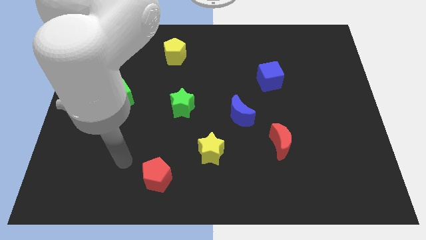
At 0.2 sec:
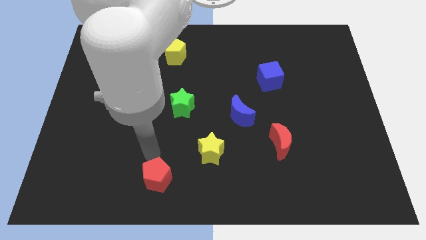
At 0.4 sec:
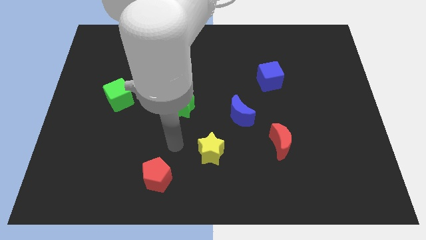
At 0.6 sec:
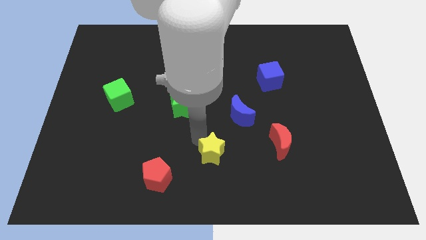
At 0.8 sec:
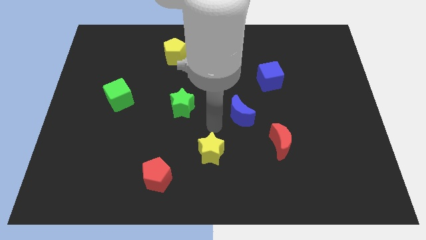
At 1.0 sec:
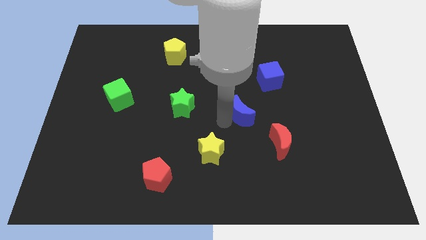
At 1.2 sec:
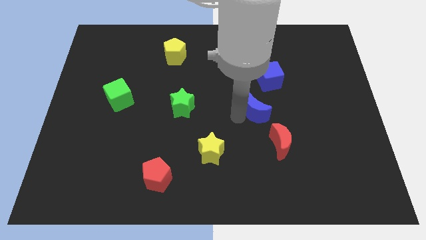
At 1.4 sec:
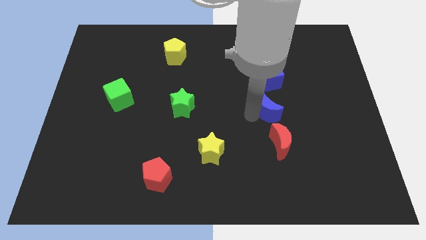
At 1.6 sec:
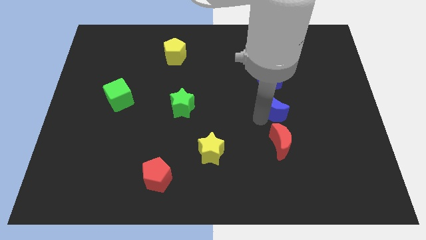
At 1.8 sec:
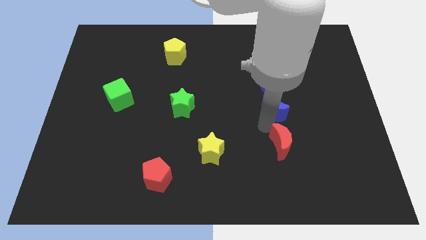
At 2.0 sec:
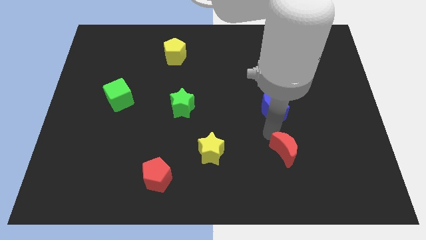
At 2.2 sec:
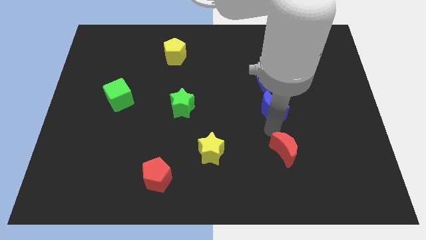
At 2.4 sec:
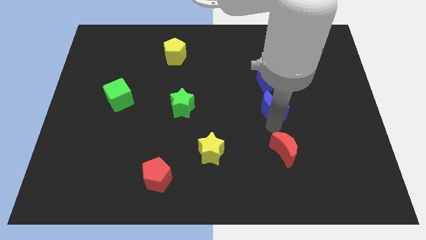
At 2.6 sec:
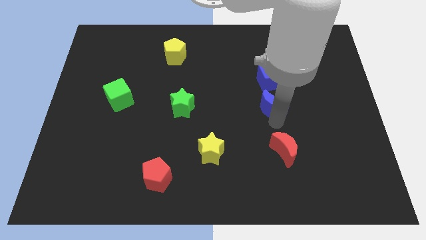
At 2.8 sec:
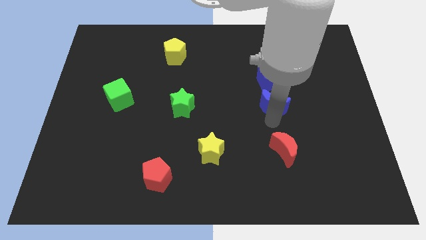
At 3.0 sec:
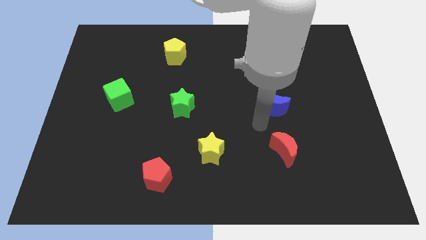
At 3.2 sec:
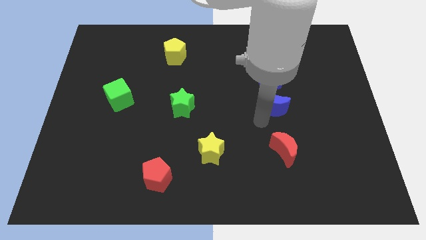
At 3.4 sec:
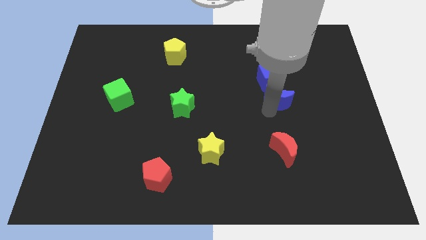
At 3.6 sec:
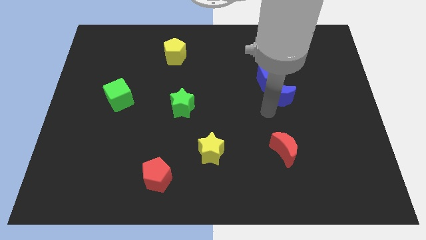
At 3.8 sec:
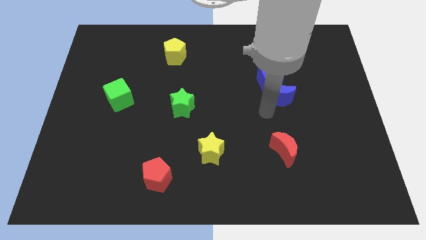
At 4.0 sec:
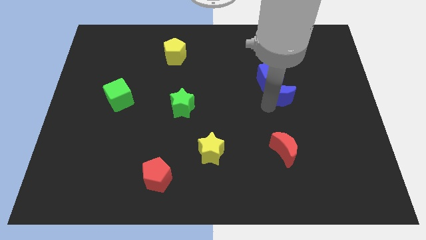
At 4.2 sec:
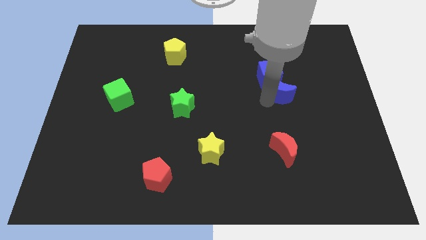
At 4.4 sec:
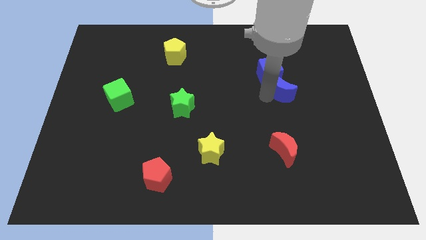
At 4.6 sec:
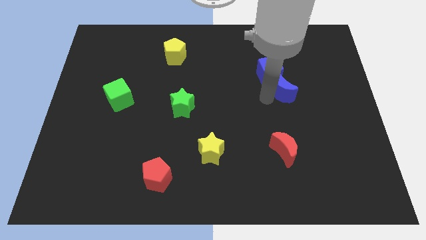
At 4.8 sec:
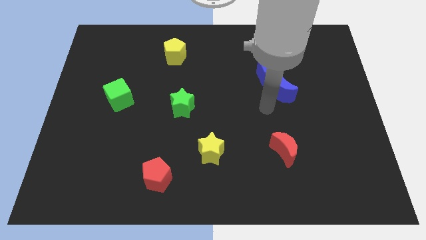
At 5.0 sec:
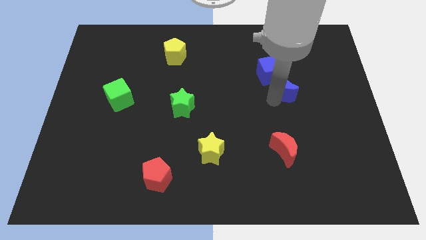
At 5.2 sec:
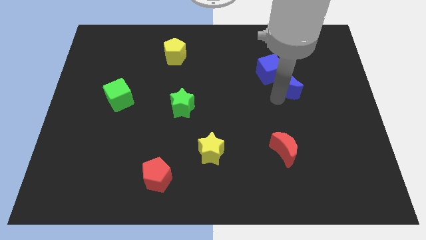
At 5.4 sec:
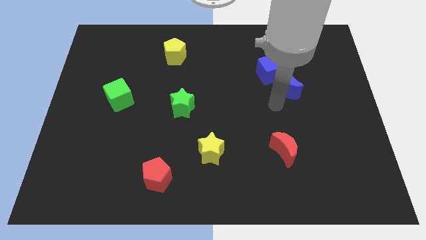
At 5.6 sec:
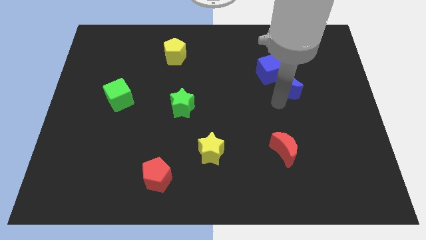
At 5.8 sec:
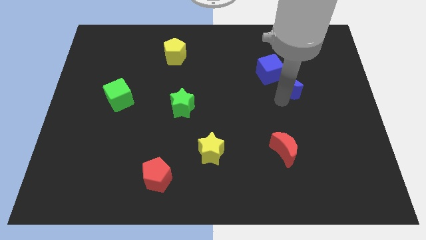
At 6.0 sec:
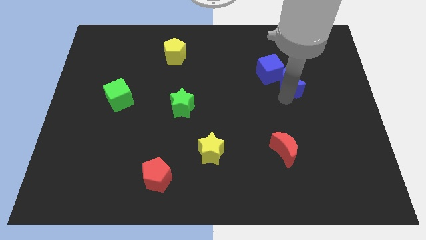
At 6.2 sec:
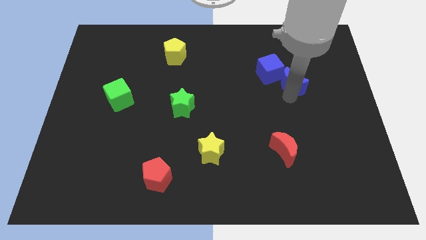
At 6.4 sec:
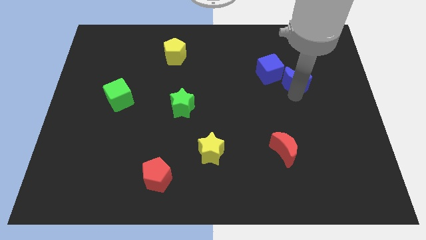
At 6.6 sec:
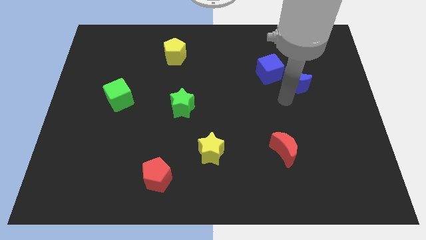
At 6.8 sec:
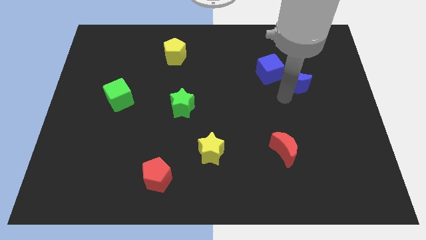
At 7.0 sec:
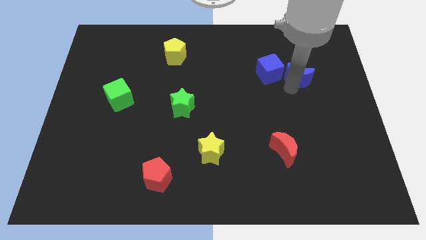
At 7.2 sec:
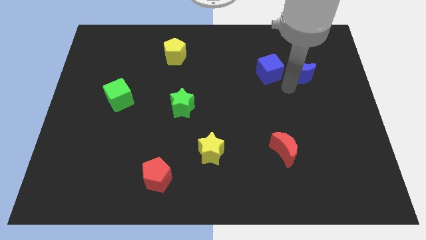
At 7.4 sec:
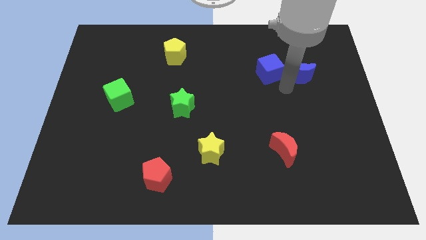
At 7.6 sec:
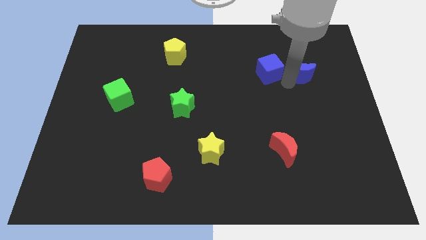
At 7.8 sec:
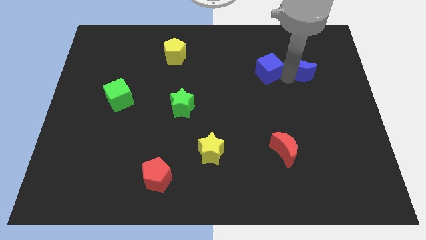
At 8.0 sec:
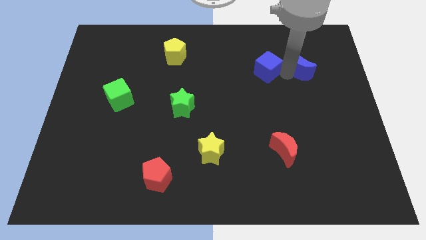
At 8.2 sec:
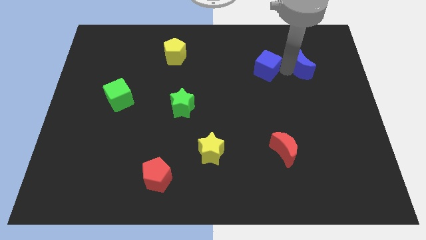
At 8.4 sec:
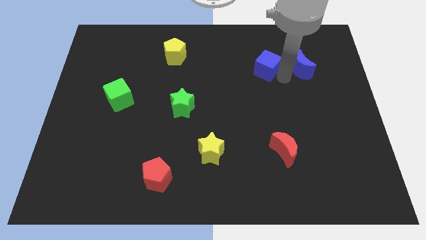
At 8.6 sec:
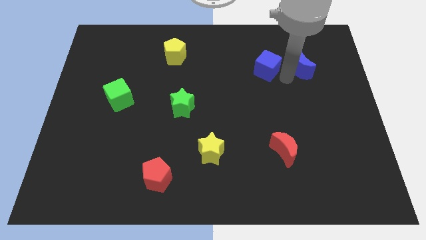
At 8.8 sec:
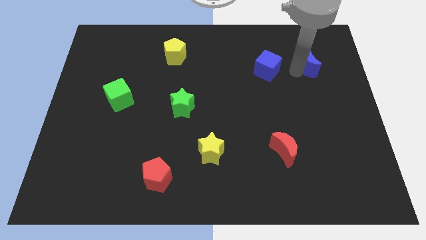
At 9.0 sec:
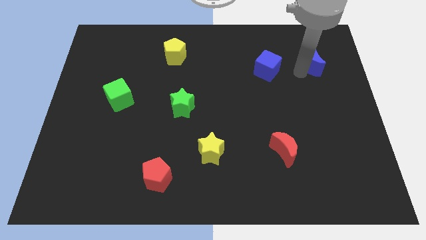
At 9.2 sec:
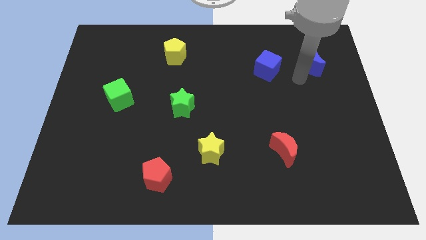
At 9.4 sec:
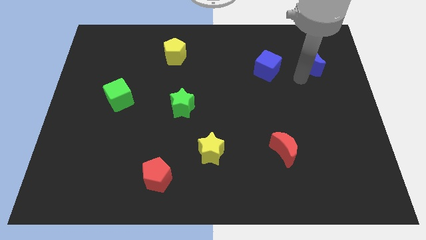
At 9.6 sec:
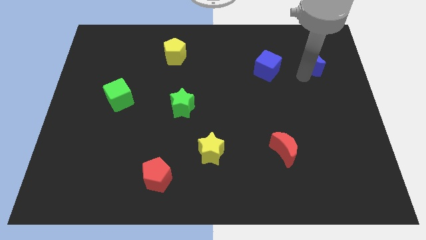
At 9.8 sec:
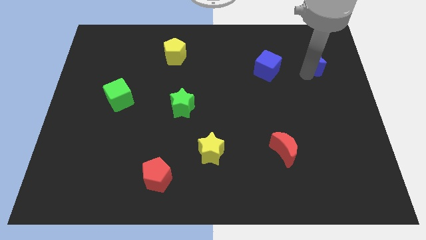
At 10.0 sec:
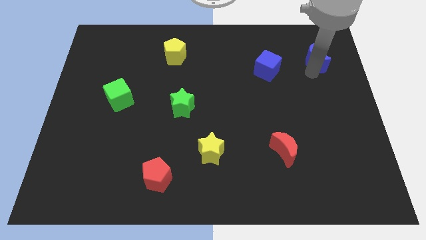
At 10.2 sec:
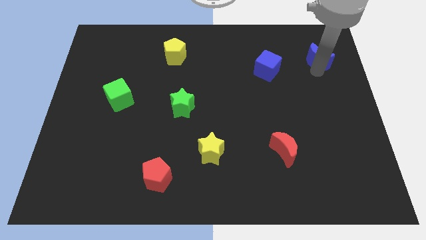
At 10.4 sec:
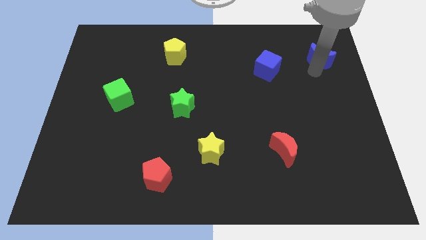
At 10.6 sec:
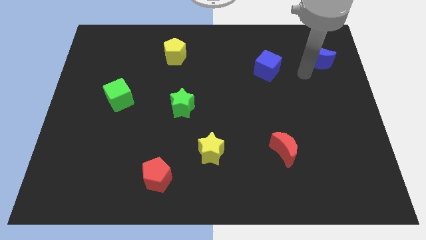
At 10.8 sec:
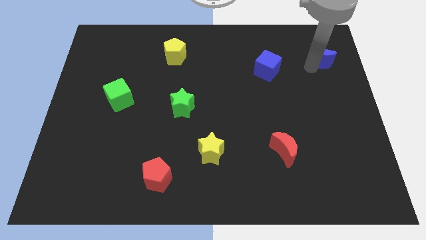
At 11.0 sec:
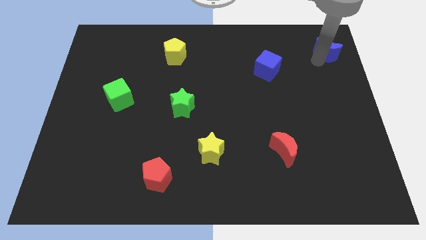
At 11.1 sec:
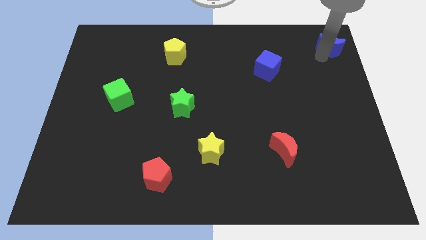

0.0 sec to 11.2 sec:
slide the blue moon to the upper right corner

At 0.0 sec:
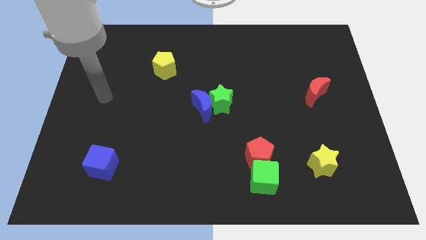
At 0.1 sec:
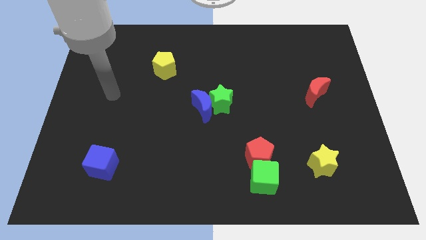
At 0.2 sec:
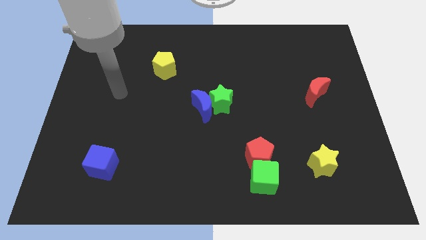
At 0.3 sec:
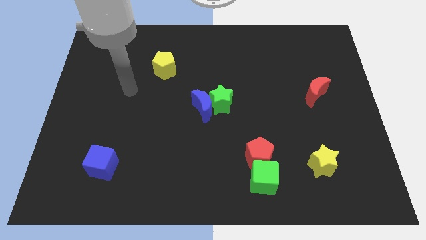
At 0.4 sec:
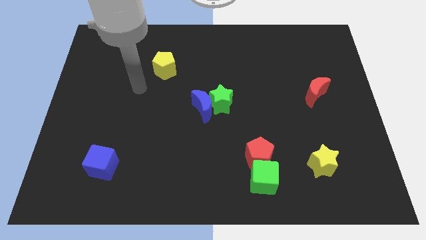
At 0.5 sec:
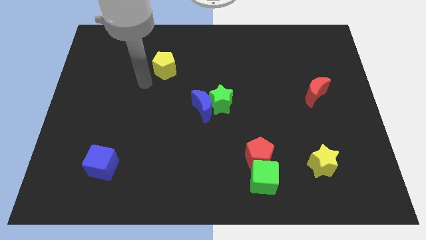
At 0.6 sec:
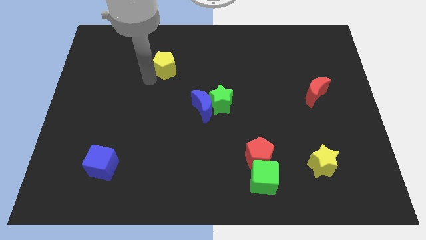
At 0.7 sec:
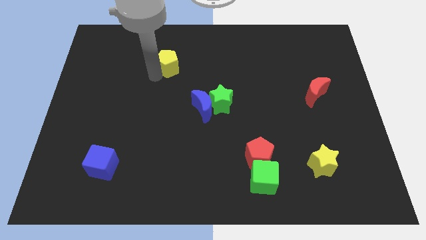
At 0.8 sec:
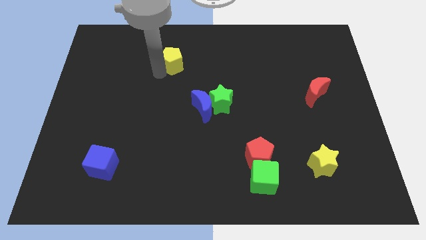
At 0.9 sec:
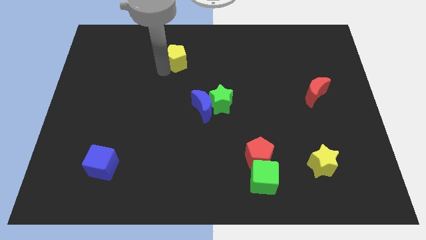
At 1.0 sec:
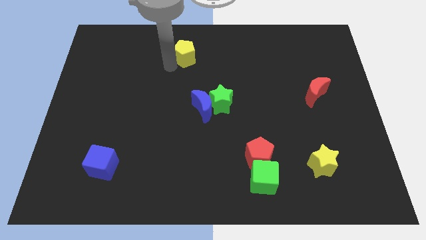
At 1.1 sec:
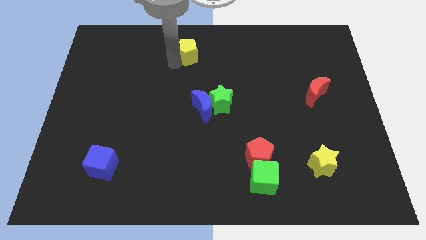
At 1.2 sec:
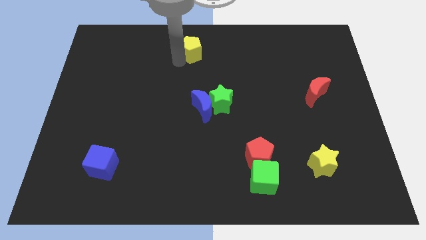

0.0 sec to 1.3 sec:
move the yellow pentagon to the top side
